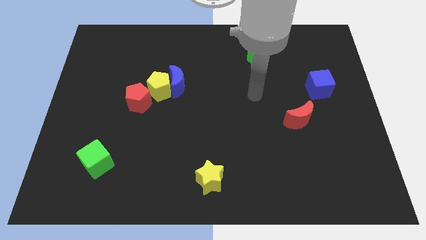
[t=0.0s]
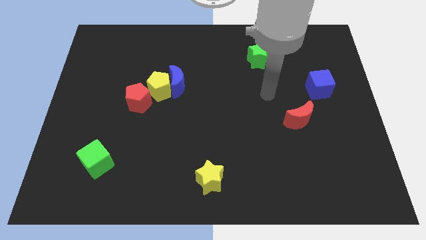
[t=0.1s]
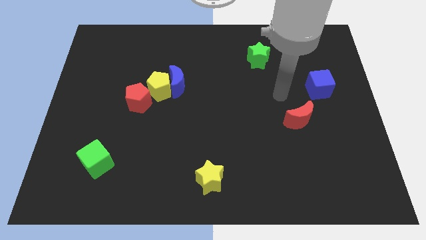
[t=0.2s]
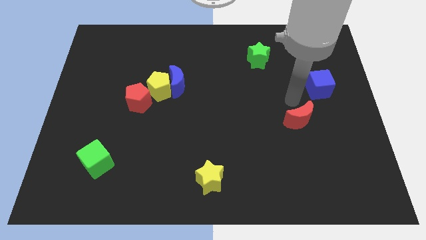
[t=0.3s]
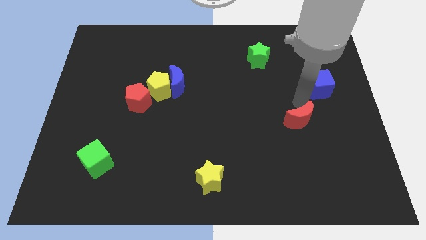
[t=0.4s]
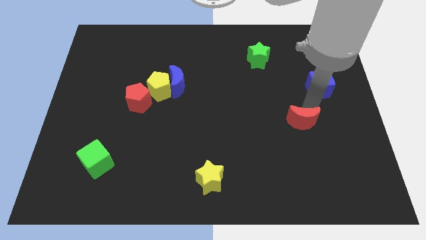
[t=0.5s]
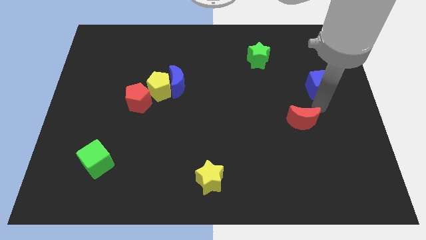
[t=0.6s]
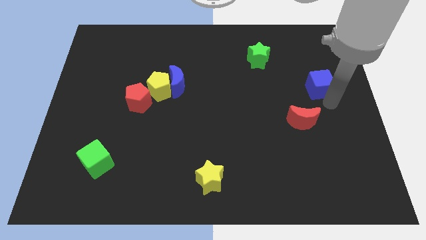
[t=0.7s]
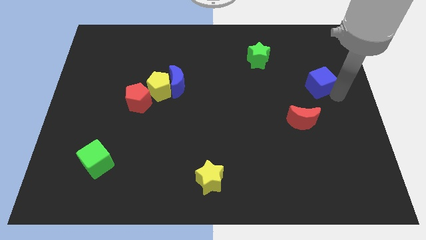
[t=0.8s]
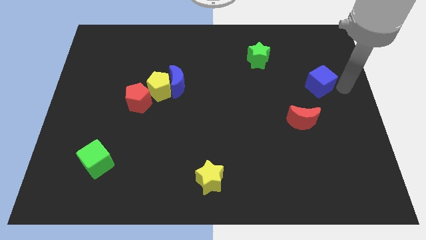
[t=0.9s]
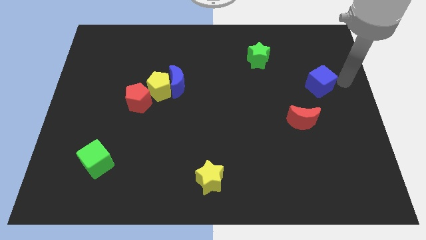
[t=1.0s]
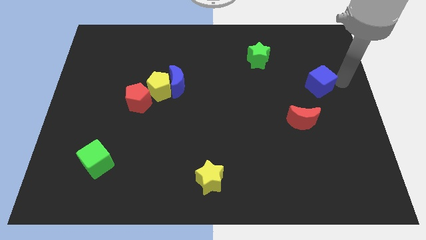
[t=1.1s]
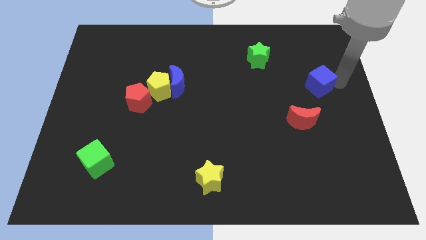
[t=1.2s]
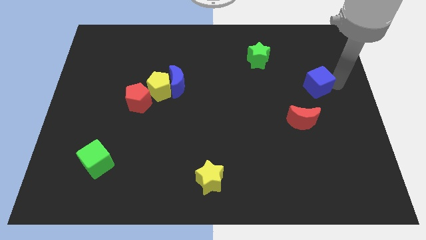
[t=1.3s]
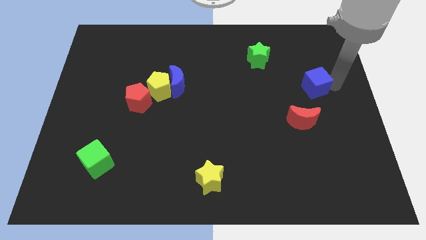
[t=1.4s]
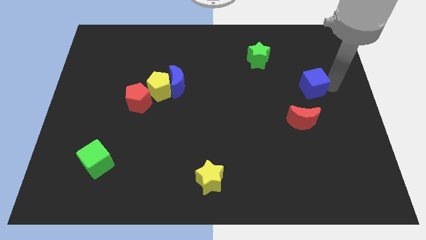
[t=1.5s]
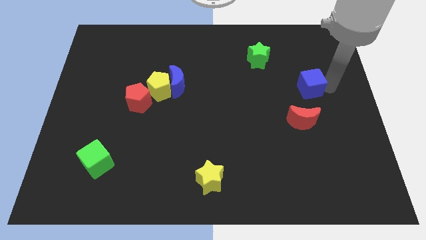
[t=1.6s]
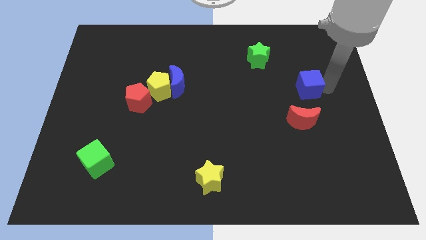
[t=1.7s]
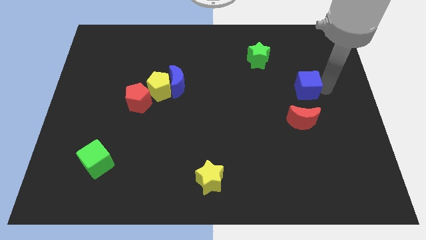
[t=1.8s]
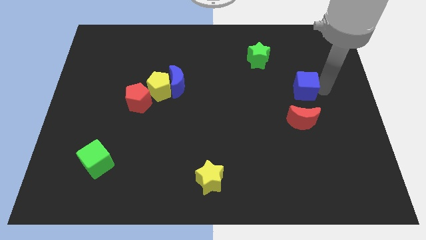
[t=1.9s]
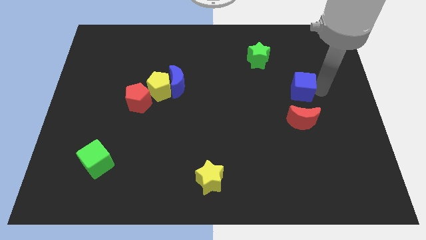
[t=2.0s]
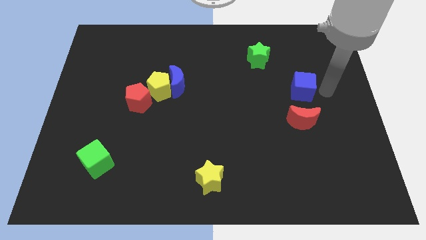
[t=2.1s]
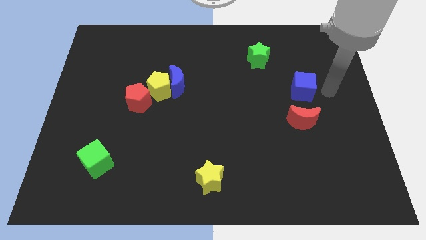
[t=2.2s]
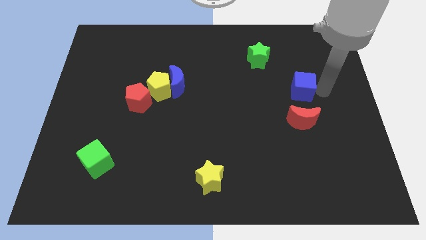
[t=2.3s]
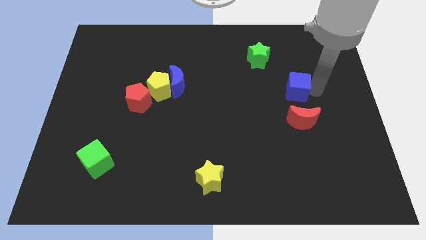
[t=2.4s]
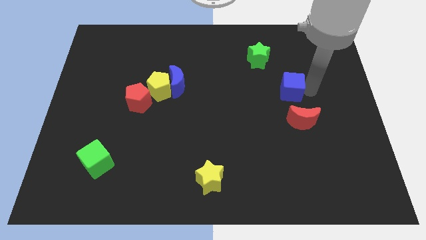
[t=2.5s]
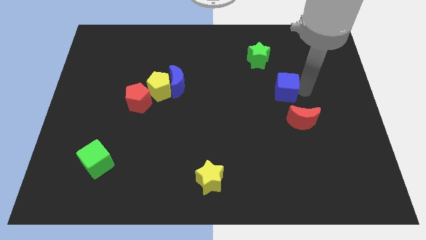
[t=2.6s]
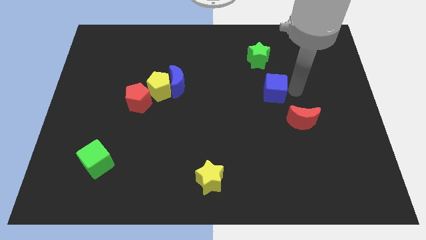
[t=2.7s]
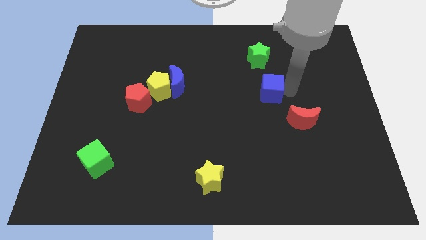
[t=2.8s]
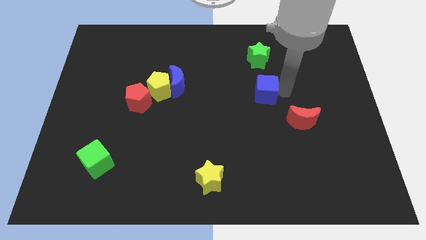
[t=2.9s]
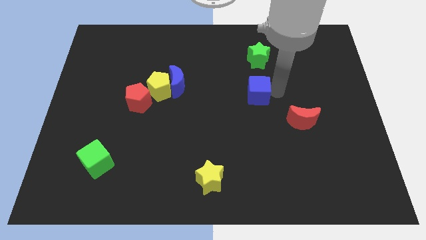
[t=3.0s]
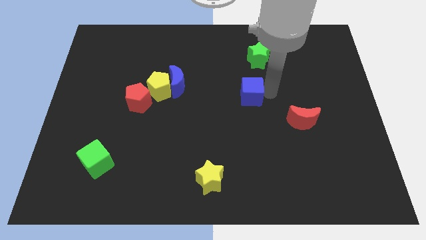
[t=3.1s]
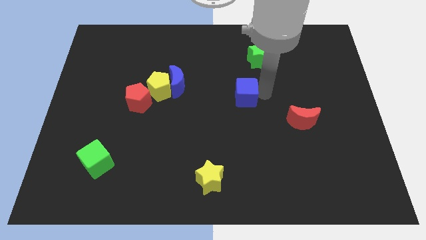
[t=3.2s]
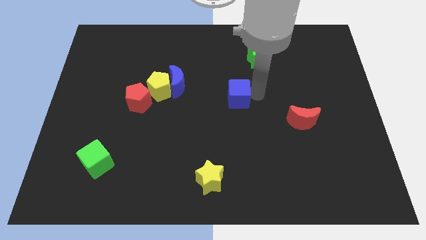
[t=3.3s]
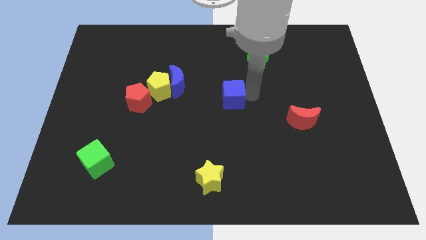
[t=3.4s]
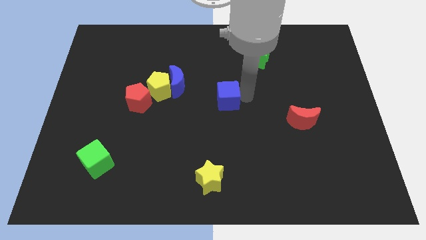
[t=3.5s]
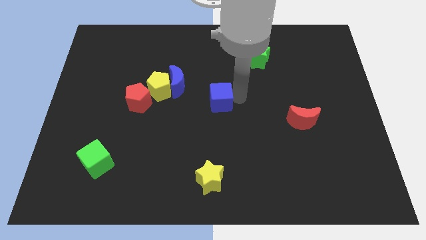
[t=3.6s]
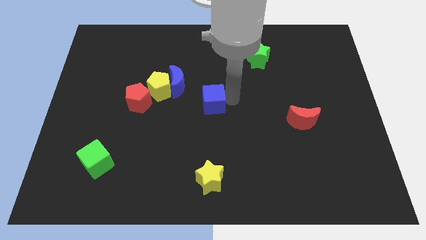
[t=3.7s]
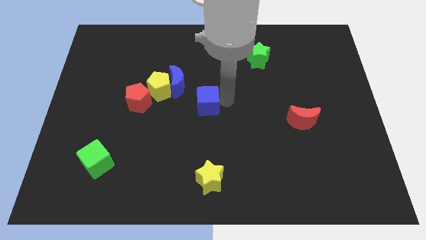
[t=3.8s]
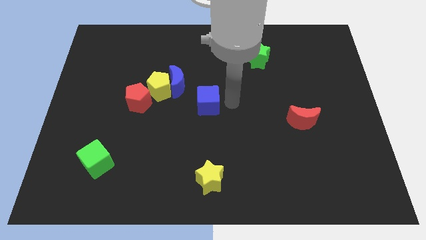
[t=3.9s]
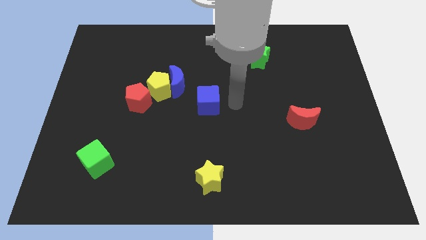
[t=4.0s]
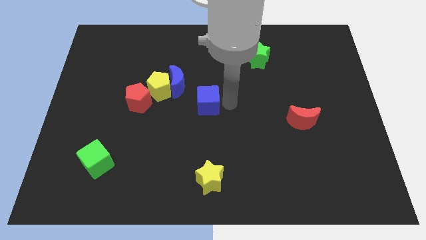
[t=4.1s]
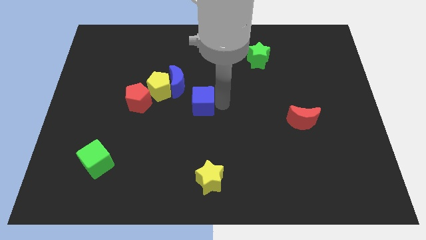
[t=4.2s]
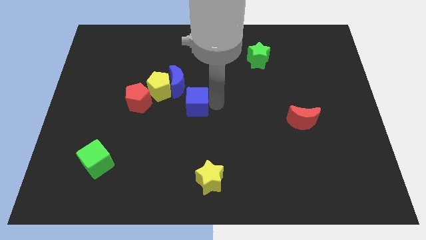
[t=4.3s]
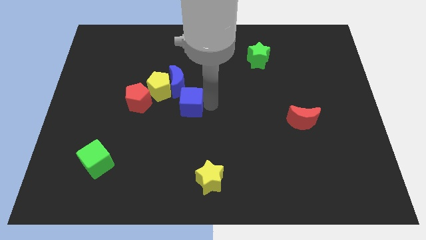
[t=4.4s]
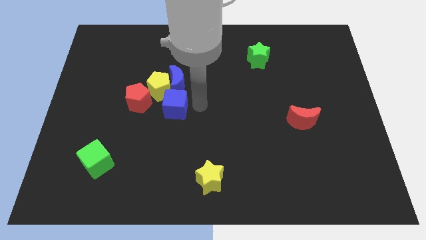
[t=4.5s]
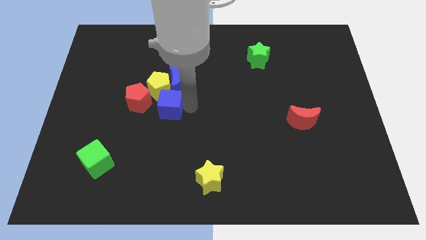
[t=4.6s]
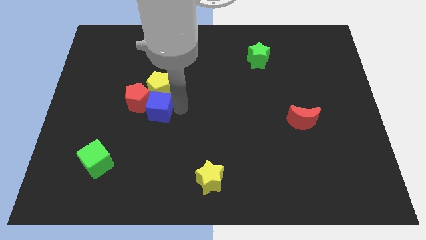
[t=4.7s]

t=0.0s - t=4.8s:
put the blue cube close to the red pentagon

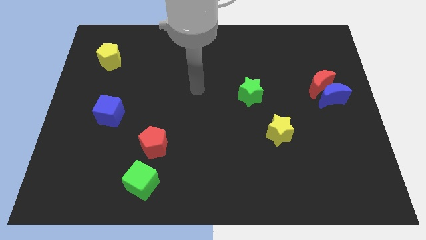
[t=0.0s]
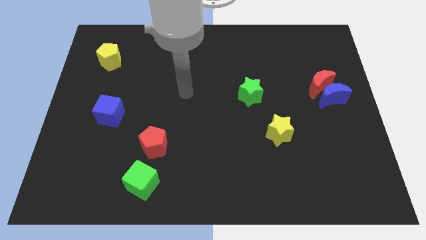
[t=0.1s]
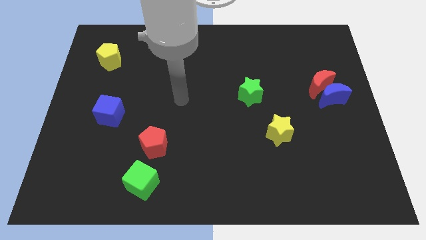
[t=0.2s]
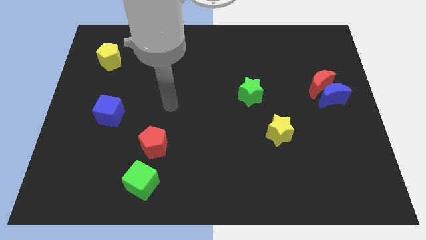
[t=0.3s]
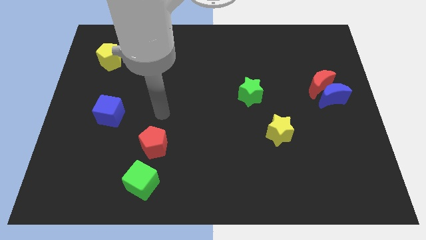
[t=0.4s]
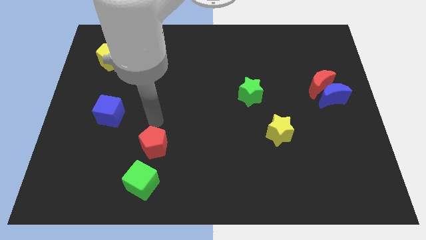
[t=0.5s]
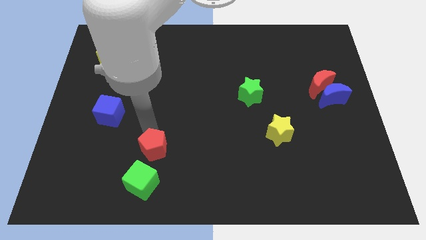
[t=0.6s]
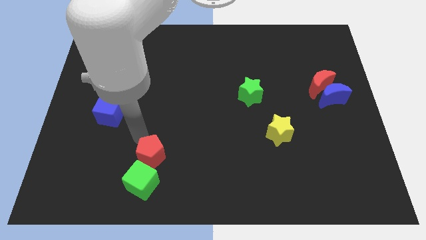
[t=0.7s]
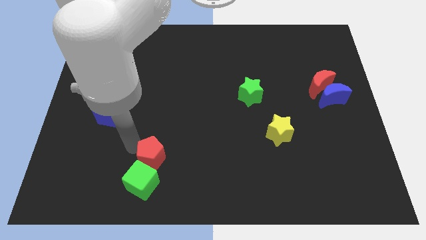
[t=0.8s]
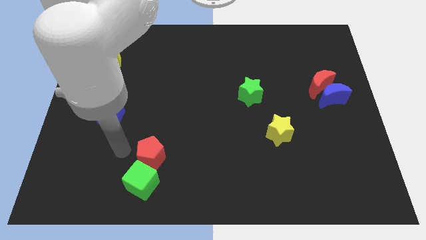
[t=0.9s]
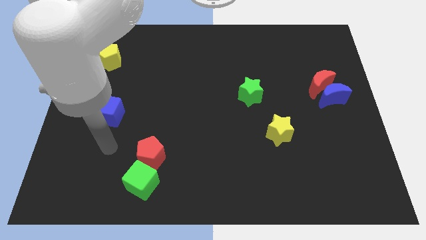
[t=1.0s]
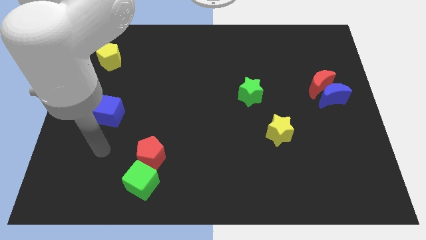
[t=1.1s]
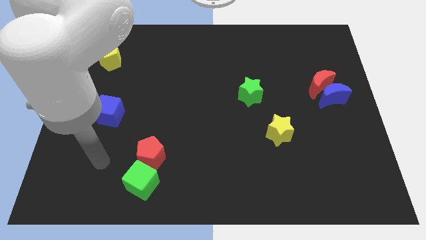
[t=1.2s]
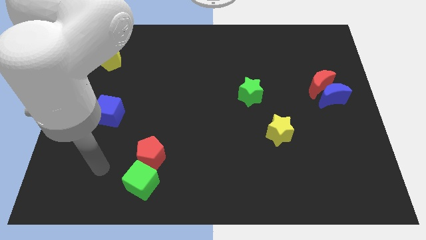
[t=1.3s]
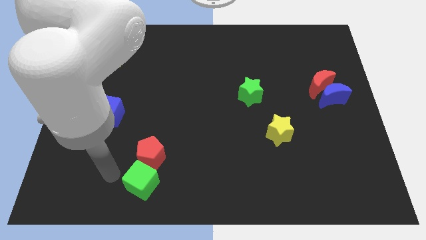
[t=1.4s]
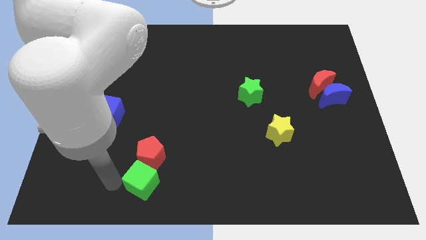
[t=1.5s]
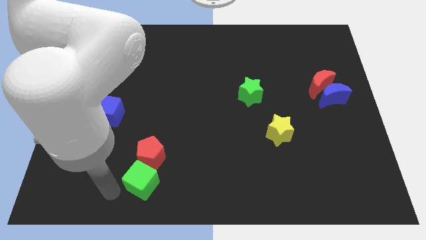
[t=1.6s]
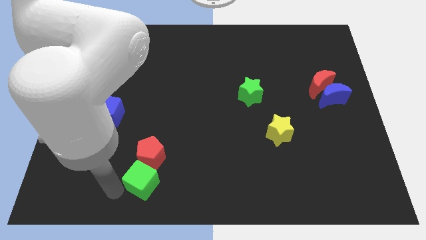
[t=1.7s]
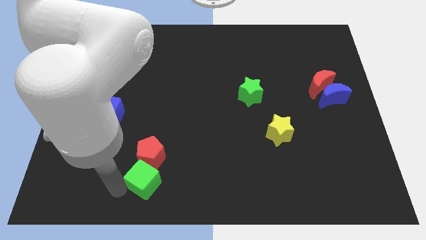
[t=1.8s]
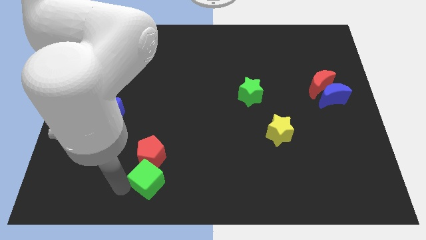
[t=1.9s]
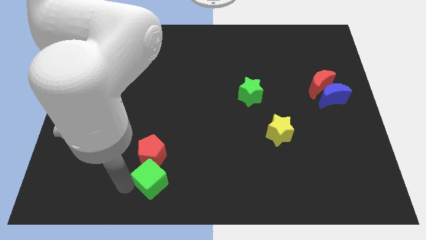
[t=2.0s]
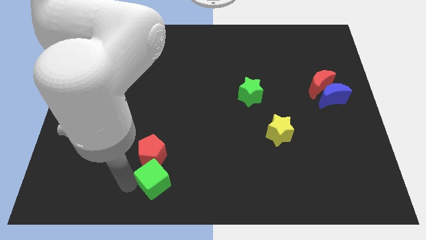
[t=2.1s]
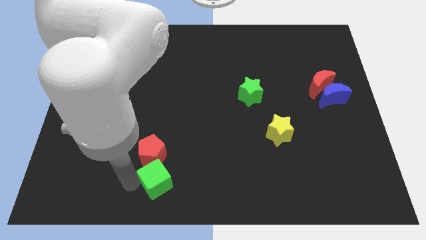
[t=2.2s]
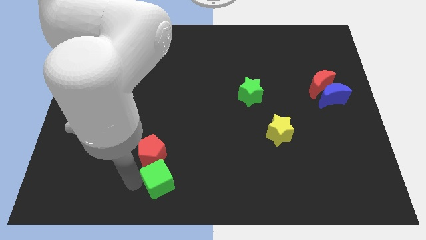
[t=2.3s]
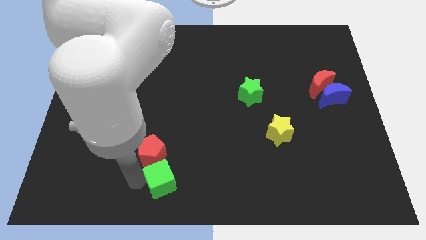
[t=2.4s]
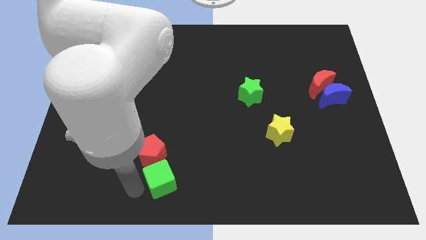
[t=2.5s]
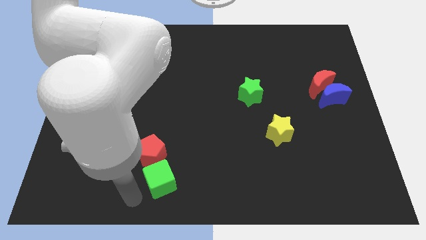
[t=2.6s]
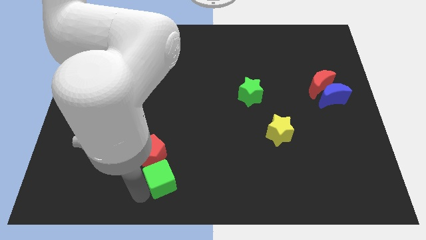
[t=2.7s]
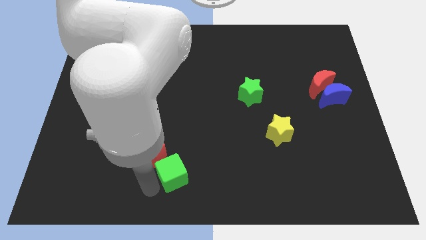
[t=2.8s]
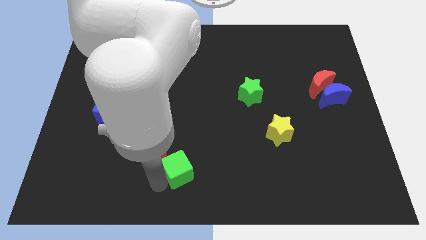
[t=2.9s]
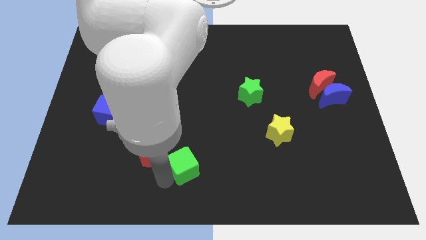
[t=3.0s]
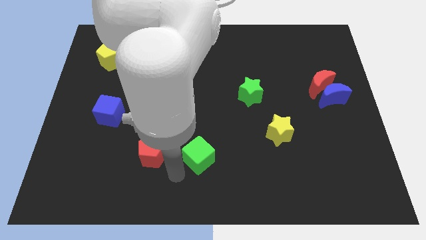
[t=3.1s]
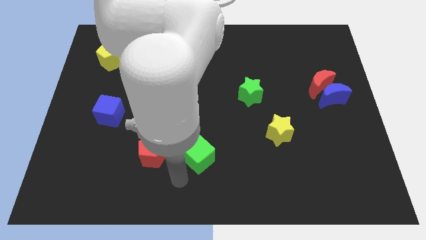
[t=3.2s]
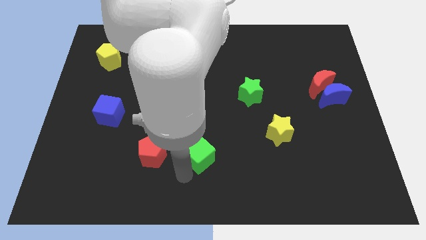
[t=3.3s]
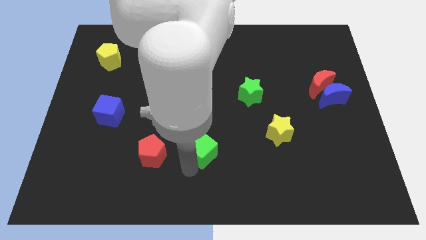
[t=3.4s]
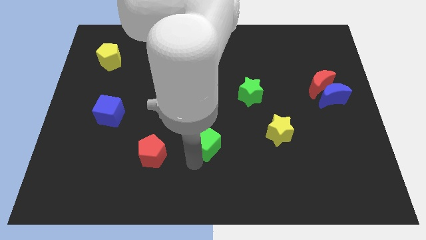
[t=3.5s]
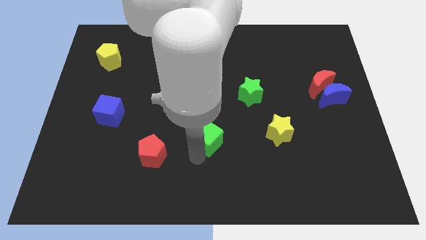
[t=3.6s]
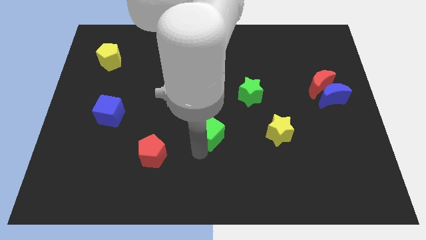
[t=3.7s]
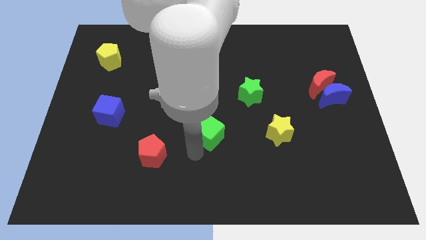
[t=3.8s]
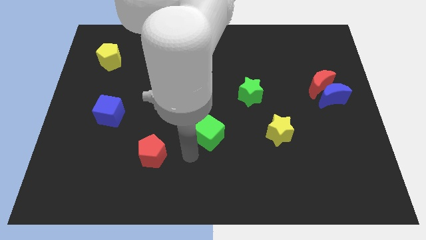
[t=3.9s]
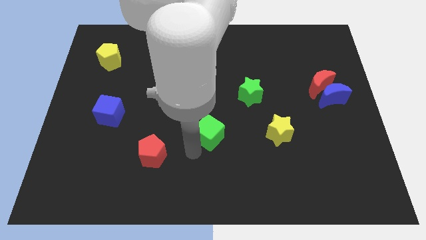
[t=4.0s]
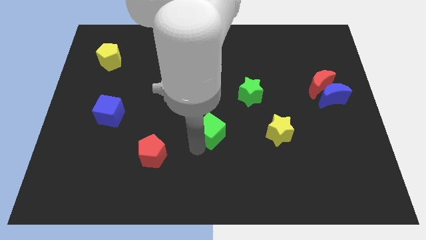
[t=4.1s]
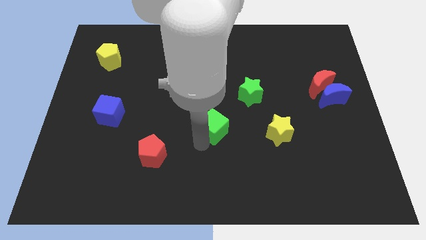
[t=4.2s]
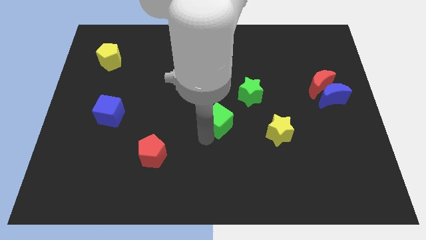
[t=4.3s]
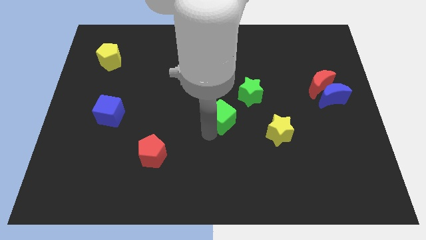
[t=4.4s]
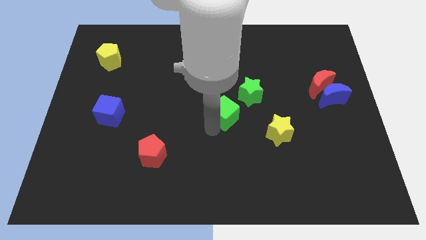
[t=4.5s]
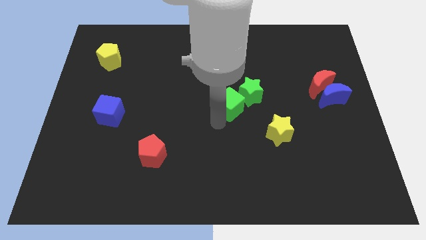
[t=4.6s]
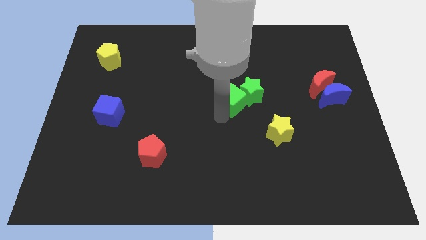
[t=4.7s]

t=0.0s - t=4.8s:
slide the green cube to the green star
